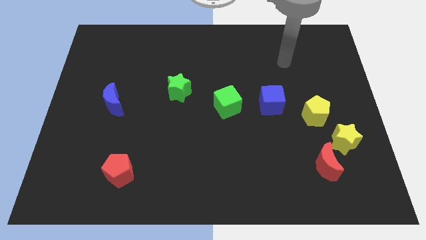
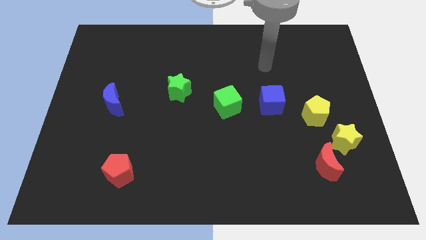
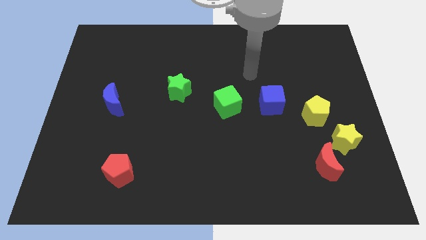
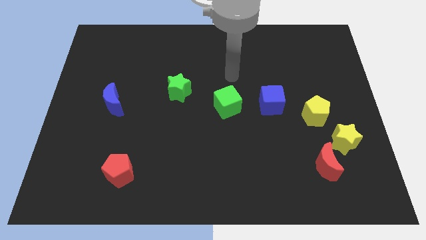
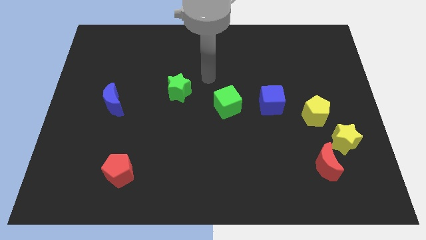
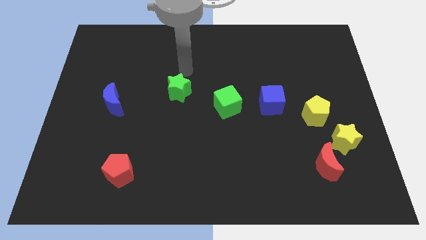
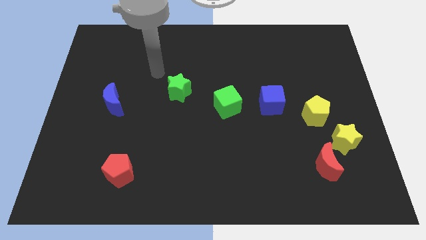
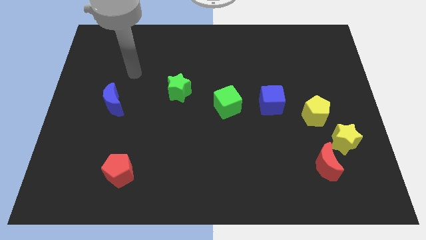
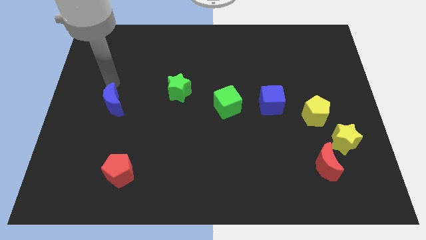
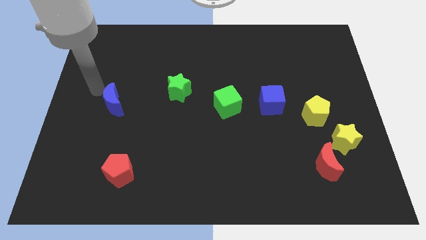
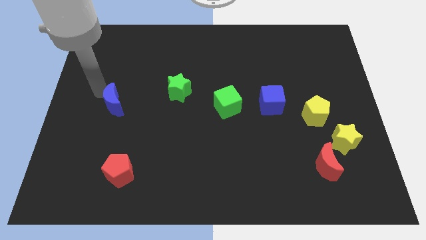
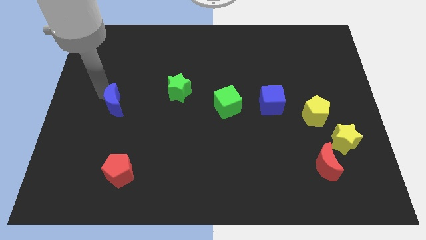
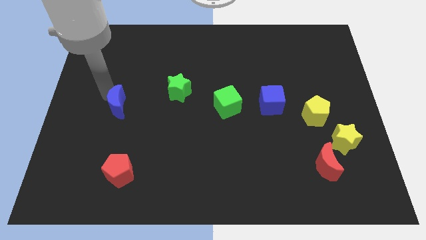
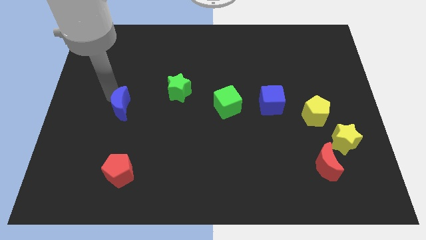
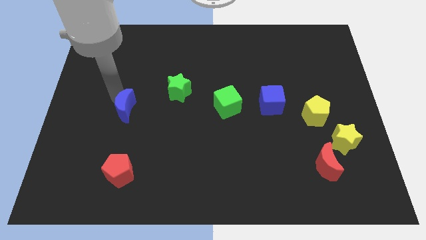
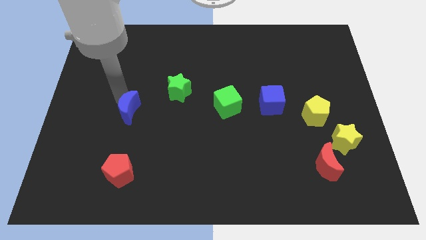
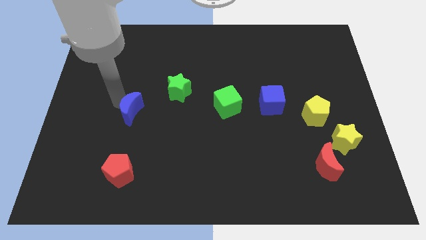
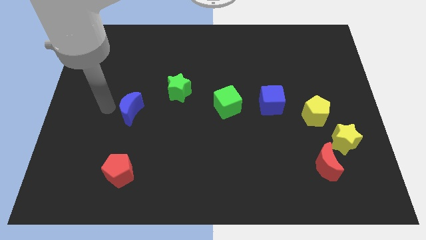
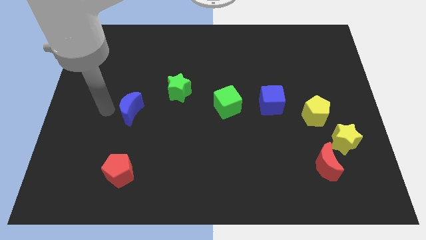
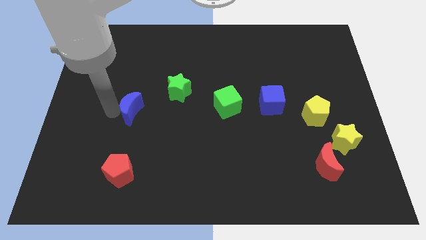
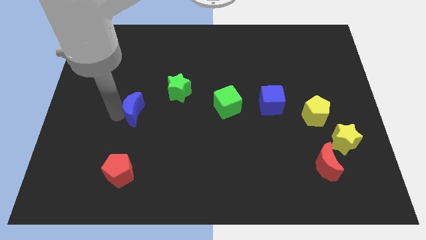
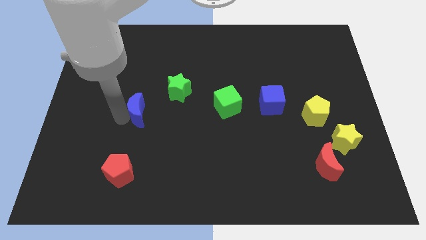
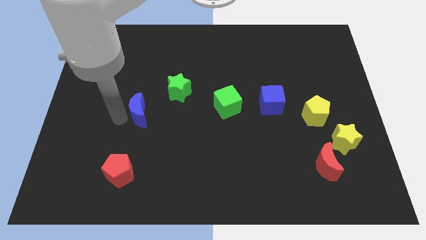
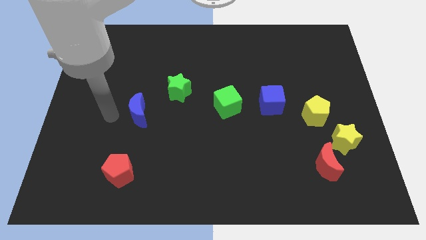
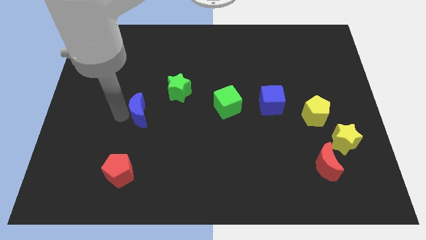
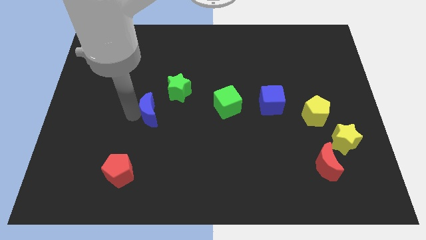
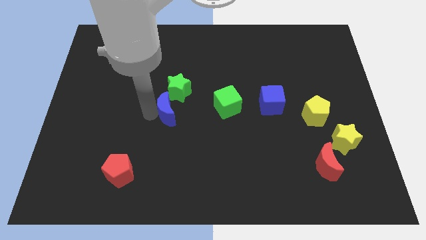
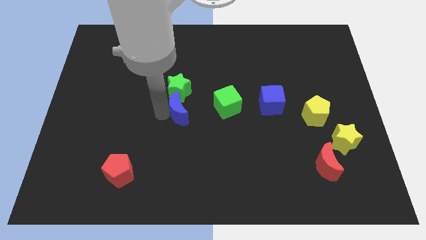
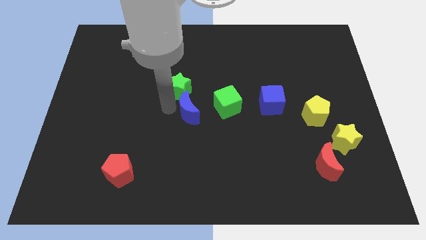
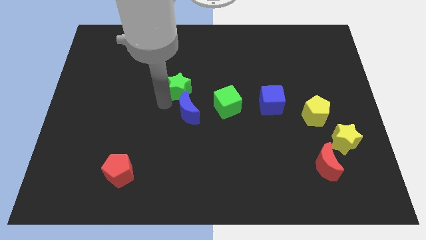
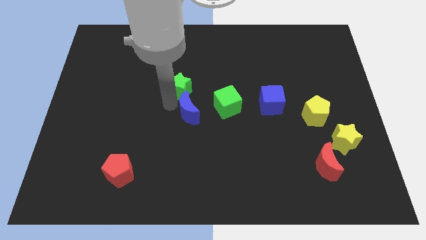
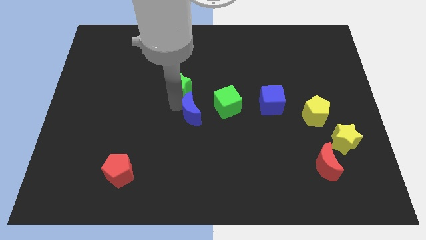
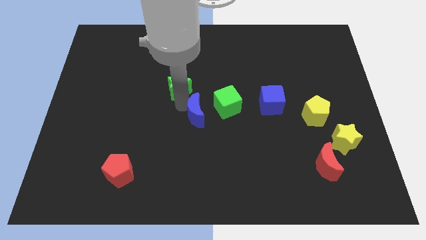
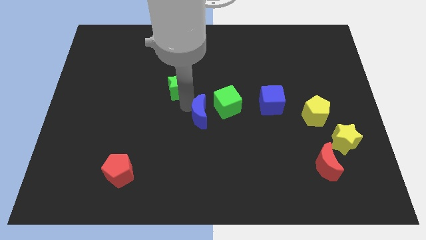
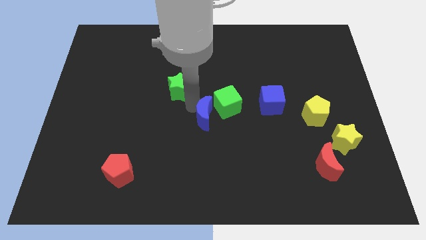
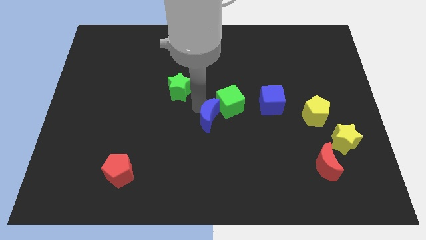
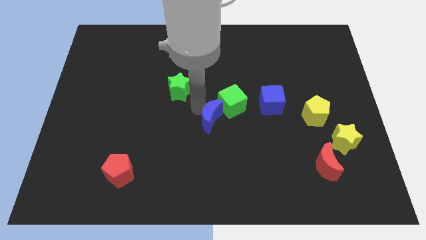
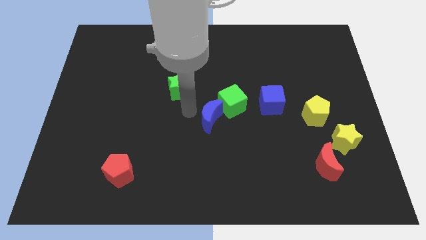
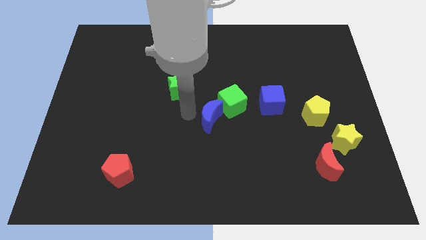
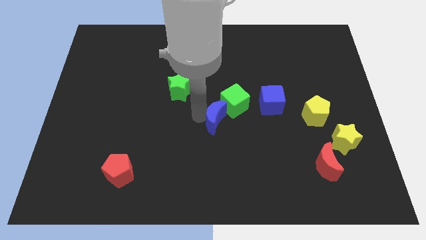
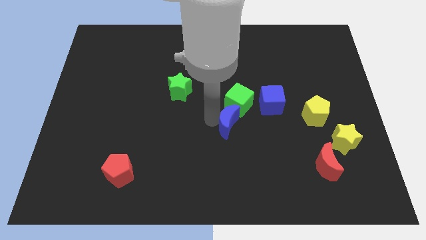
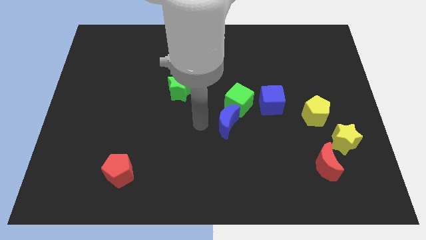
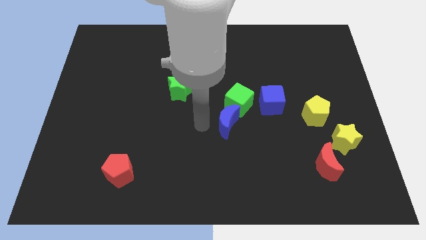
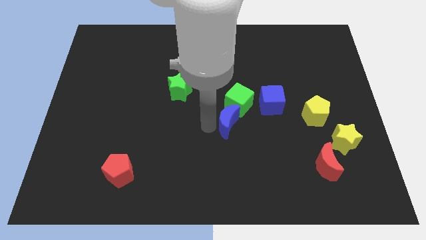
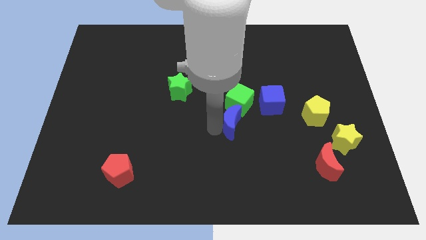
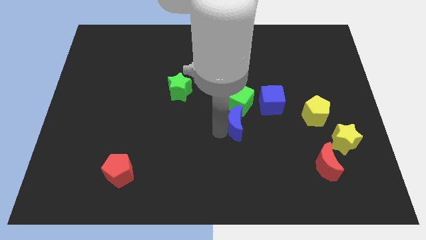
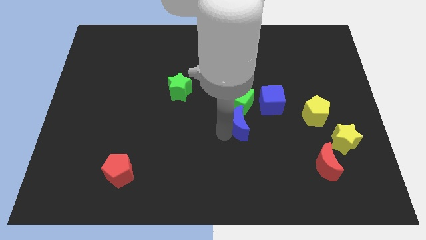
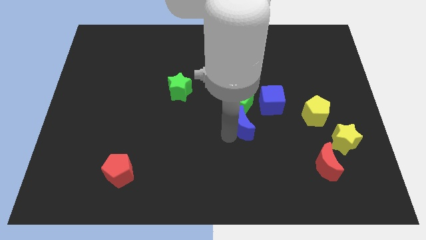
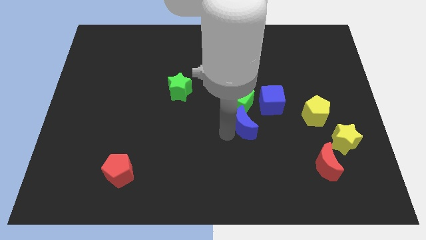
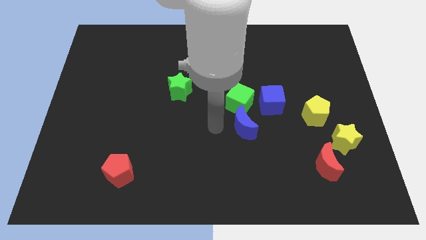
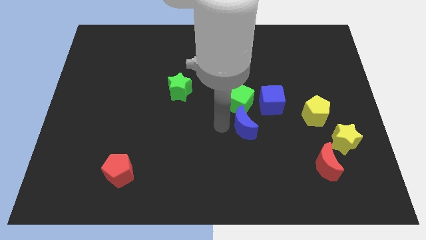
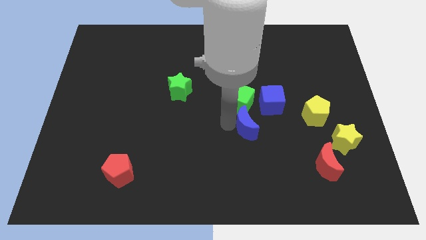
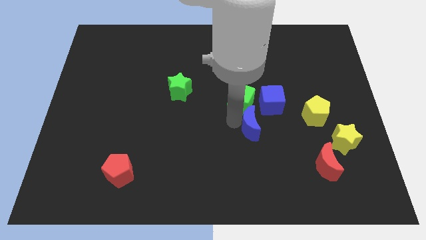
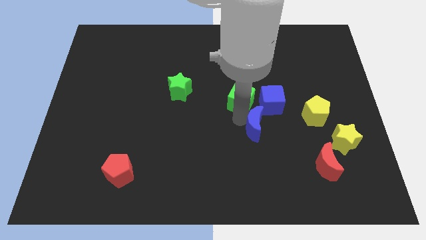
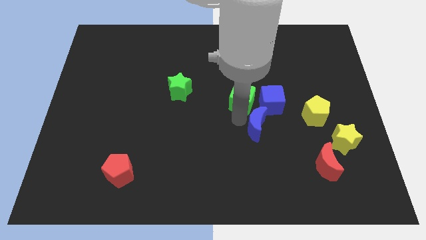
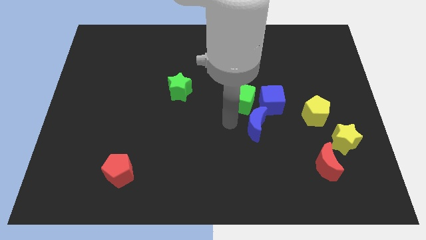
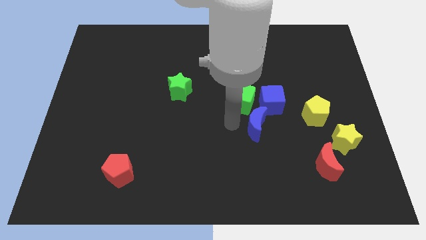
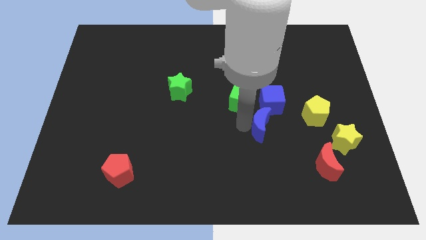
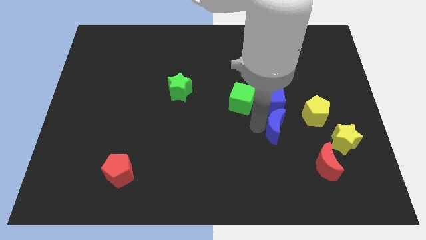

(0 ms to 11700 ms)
put the blue moon to the bottom left side of the yellow pentagon

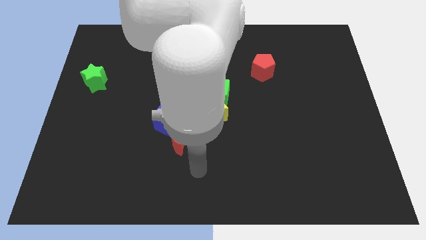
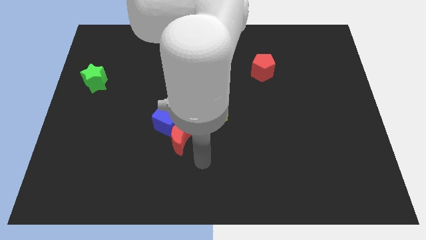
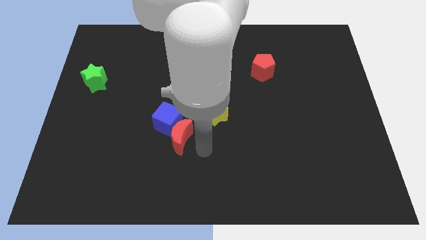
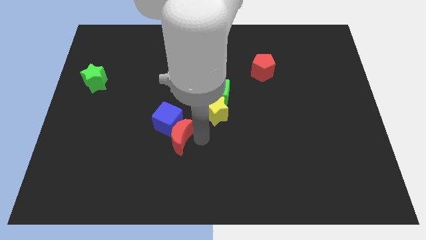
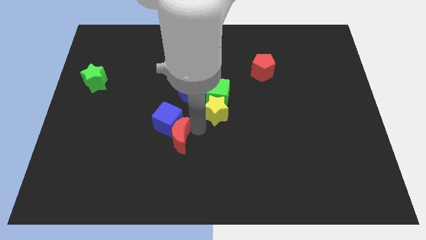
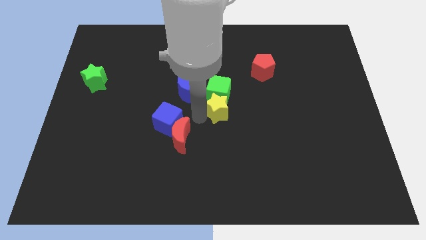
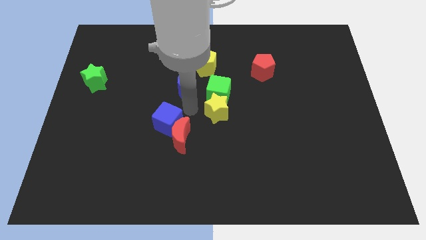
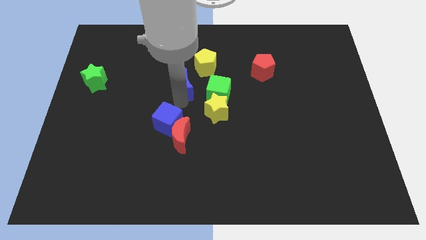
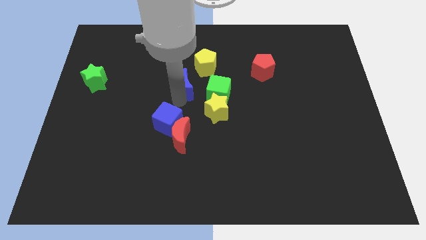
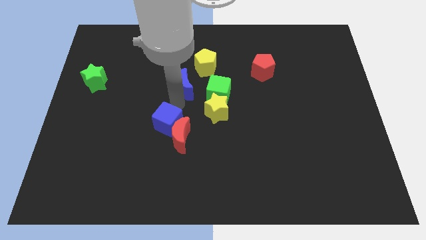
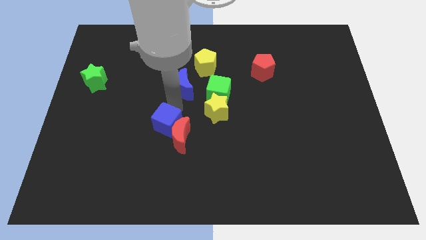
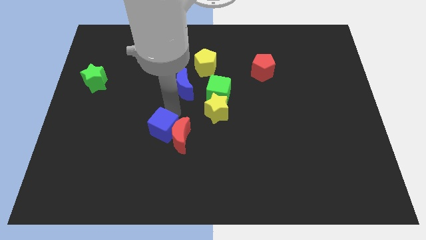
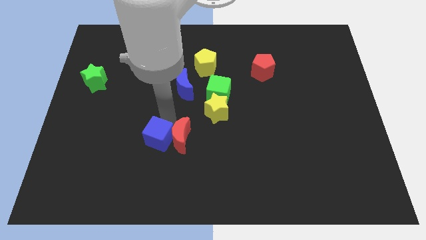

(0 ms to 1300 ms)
move the blue cube diagonally down and to the left of the red moon
